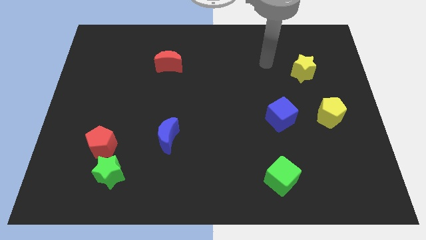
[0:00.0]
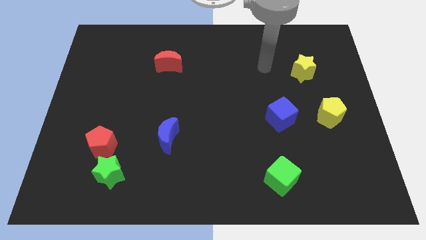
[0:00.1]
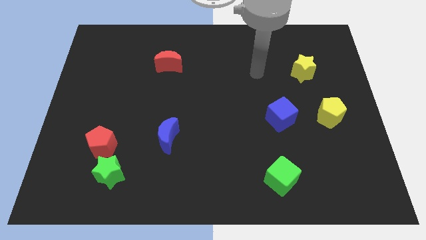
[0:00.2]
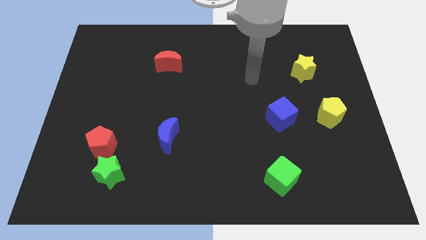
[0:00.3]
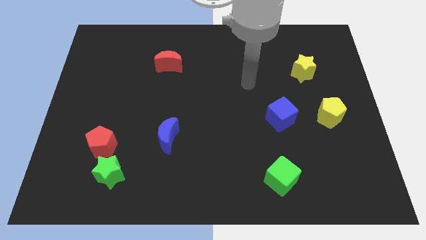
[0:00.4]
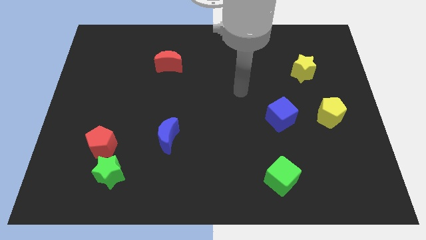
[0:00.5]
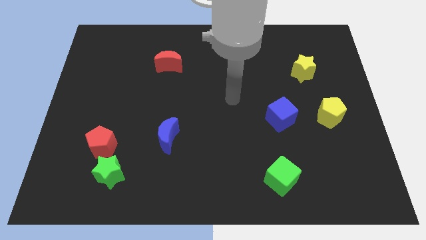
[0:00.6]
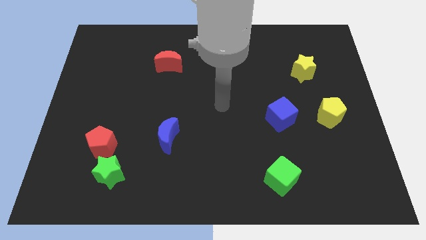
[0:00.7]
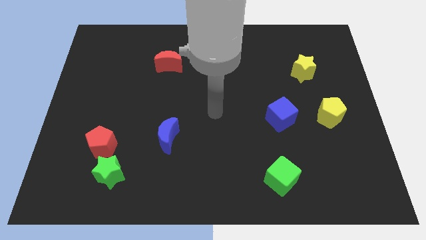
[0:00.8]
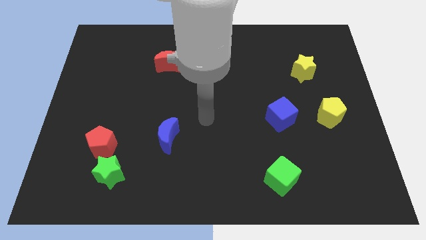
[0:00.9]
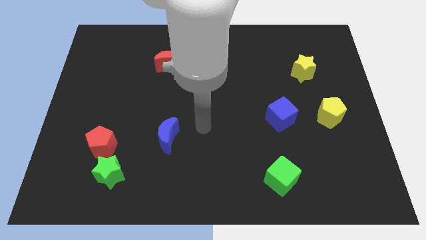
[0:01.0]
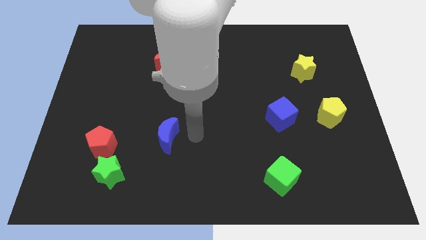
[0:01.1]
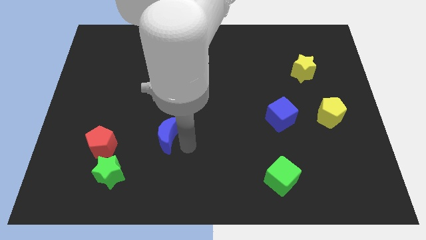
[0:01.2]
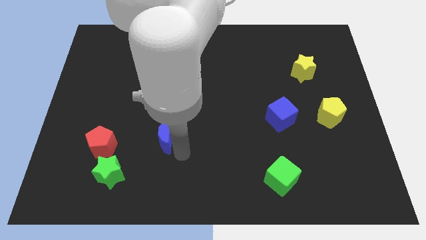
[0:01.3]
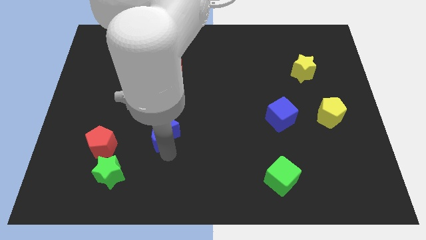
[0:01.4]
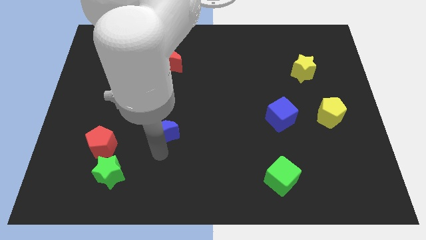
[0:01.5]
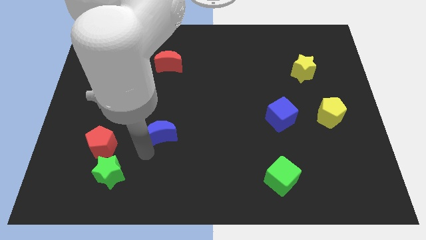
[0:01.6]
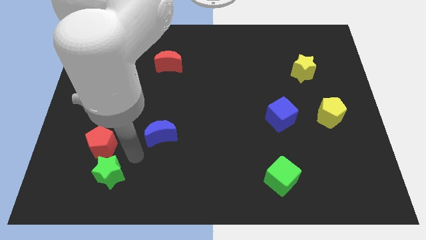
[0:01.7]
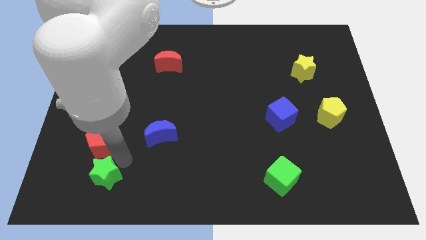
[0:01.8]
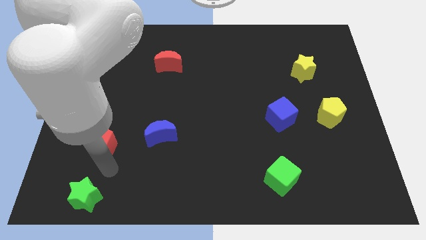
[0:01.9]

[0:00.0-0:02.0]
move the red pentagon away from the green star

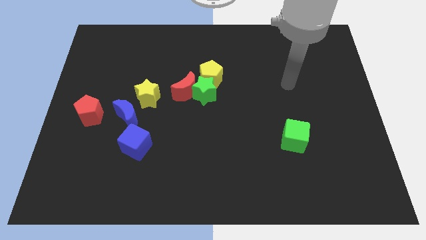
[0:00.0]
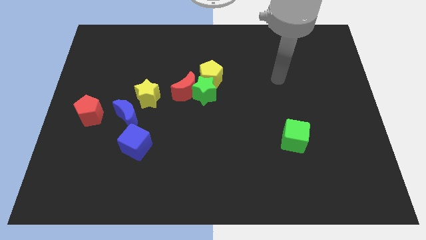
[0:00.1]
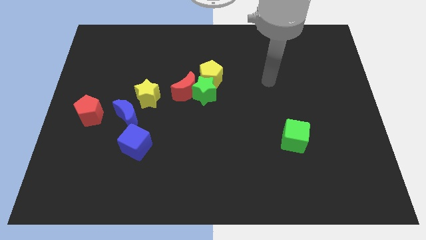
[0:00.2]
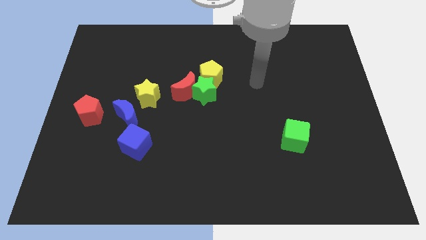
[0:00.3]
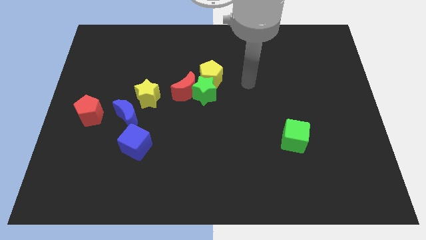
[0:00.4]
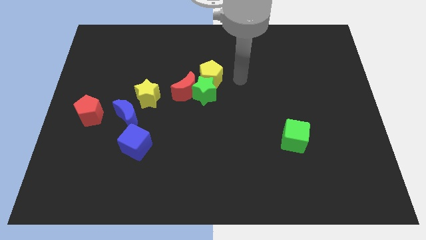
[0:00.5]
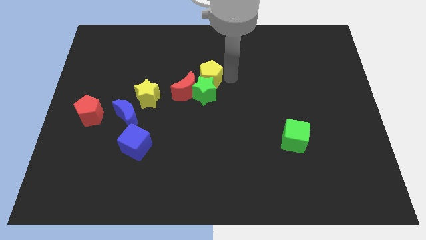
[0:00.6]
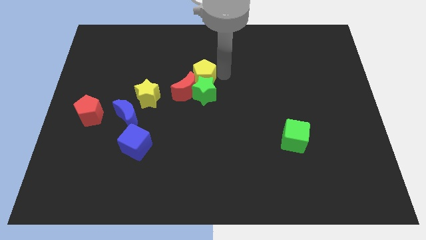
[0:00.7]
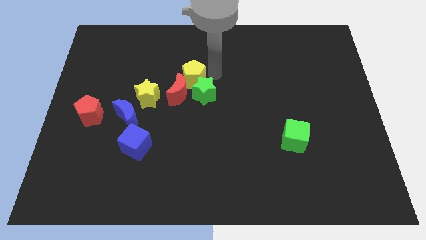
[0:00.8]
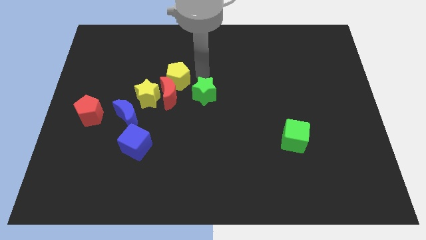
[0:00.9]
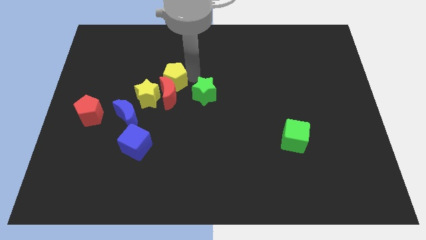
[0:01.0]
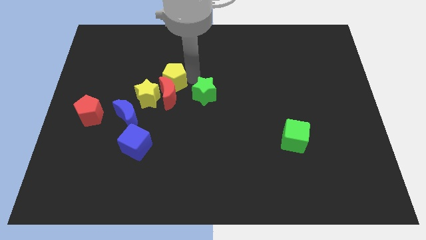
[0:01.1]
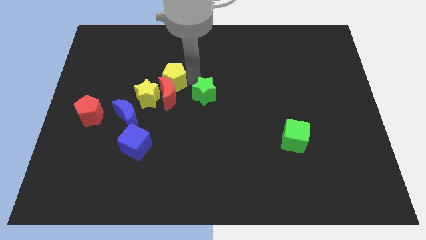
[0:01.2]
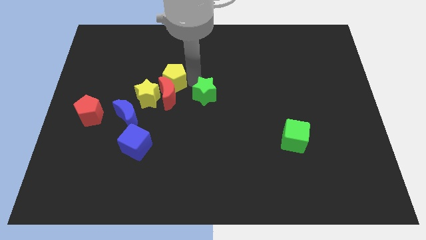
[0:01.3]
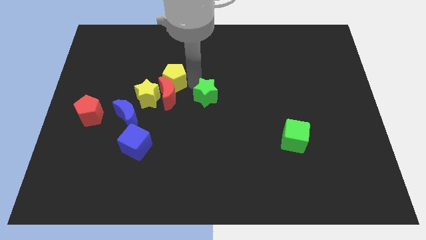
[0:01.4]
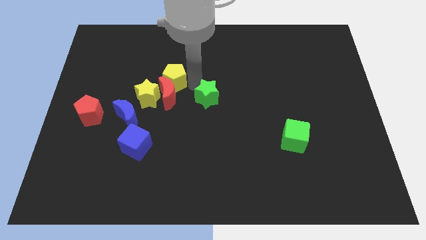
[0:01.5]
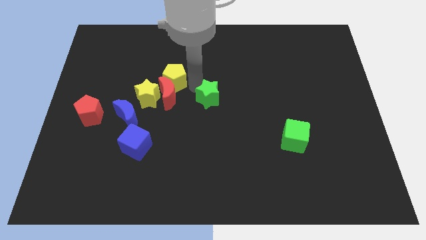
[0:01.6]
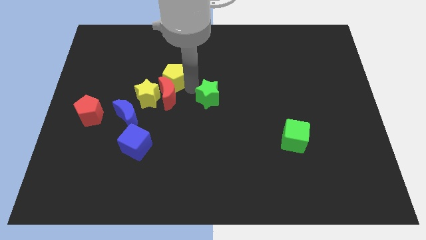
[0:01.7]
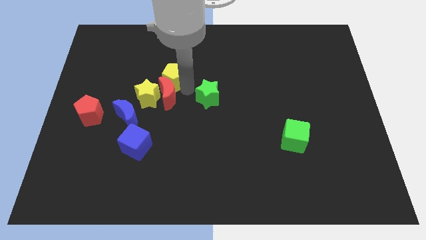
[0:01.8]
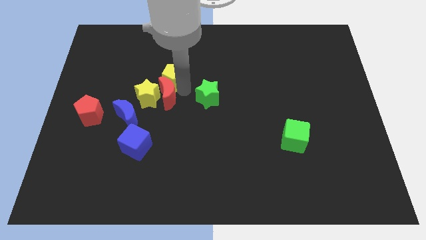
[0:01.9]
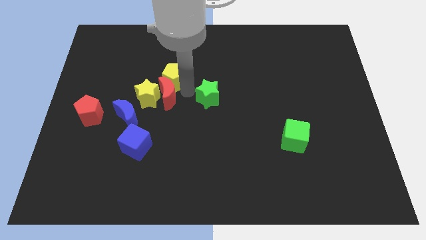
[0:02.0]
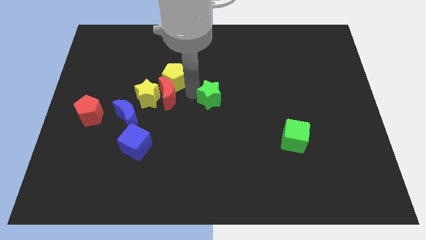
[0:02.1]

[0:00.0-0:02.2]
pull the green star apart from the red moon and yellow pentagon

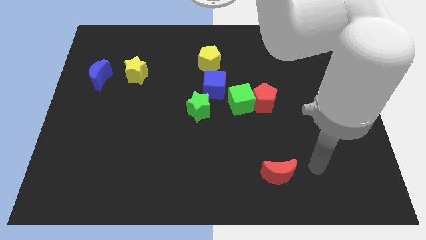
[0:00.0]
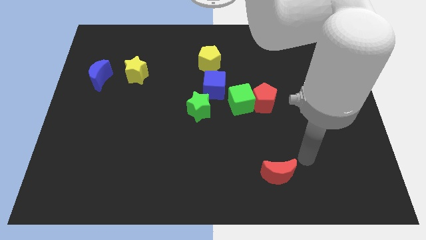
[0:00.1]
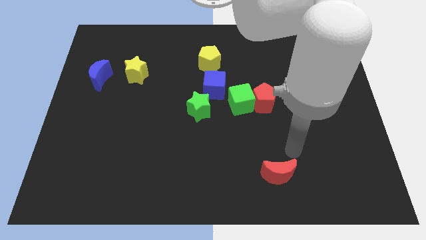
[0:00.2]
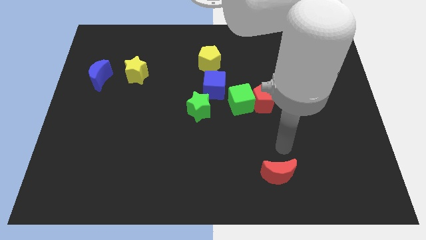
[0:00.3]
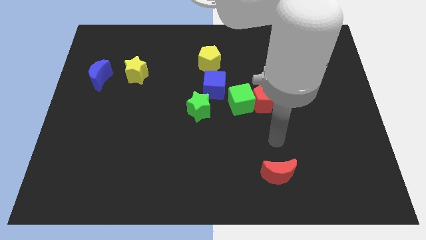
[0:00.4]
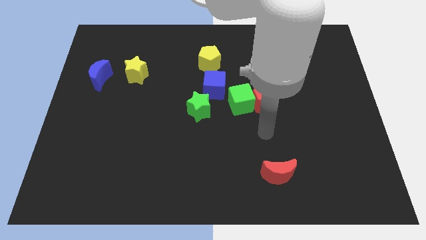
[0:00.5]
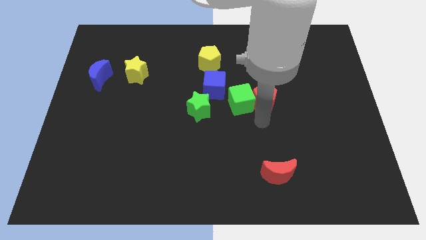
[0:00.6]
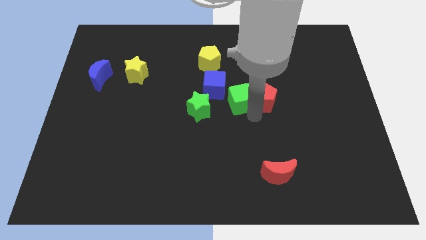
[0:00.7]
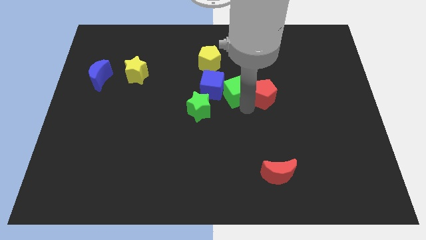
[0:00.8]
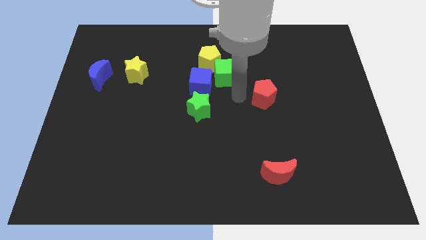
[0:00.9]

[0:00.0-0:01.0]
separate the red pentagon from the green cube

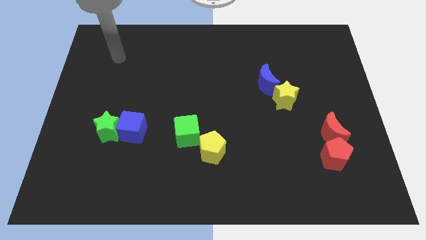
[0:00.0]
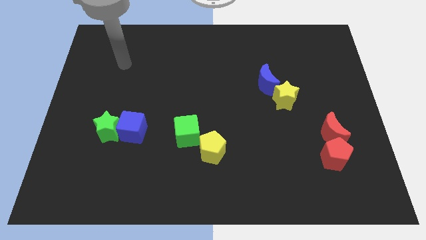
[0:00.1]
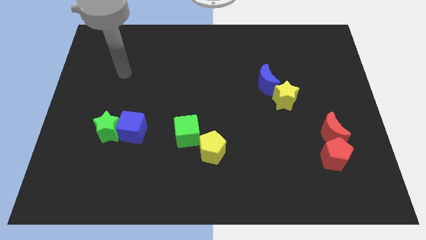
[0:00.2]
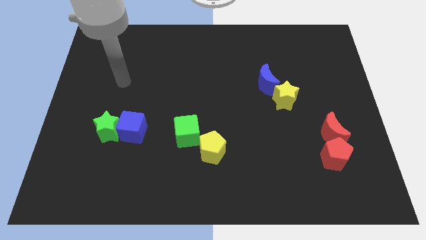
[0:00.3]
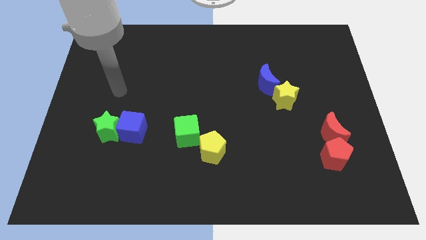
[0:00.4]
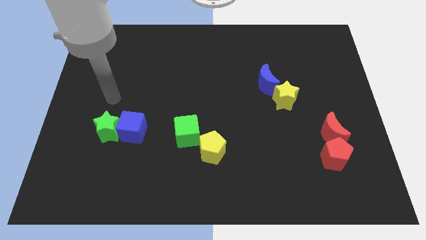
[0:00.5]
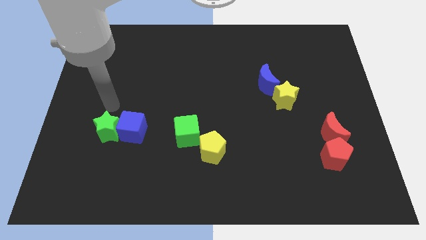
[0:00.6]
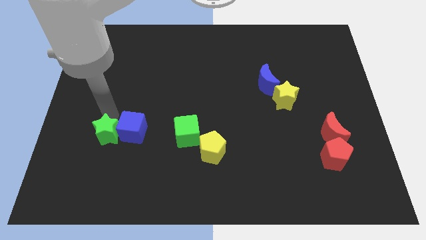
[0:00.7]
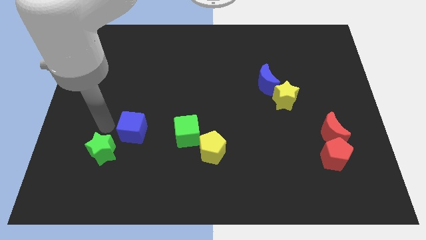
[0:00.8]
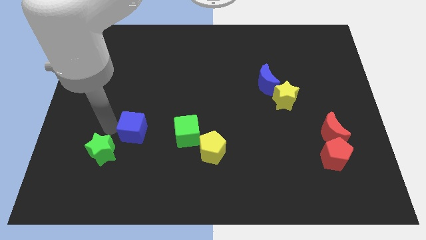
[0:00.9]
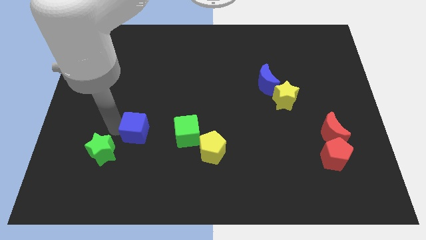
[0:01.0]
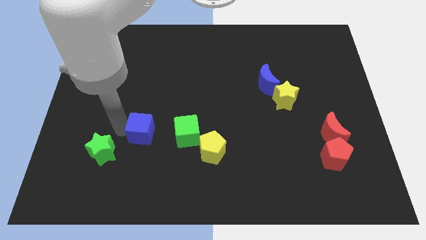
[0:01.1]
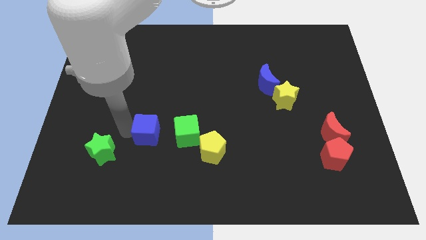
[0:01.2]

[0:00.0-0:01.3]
pull the blue cube apart from the green star

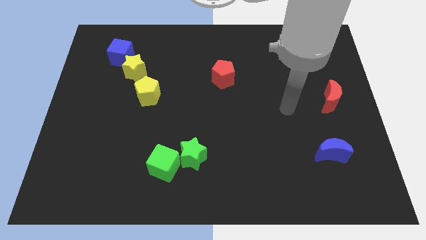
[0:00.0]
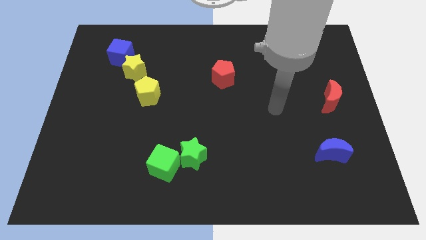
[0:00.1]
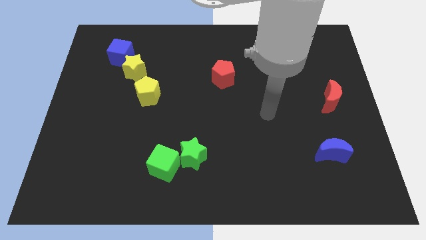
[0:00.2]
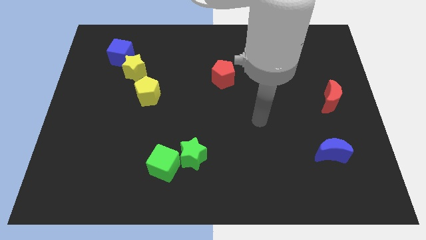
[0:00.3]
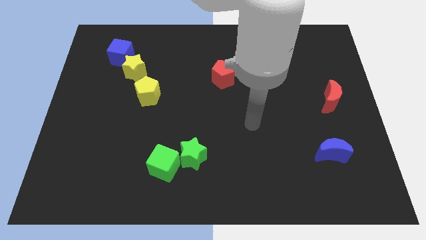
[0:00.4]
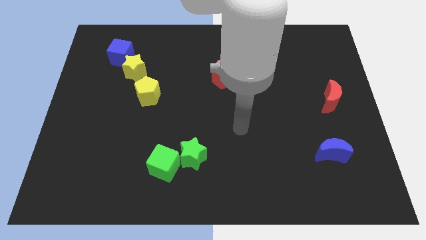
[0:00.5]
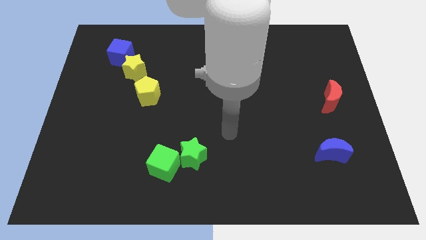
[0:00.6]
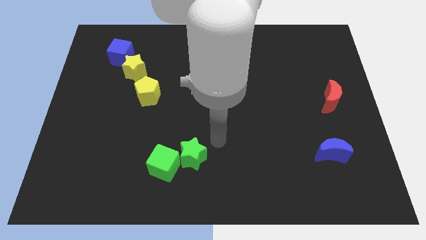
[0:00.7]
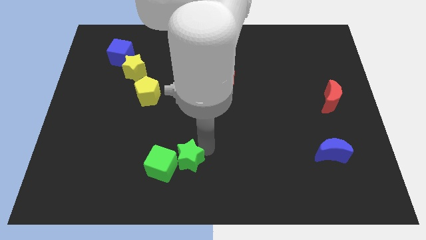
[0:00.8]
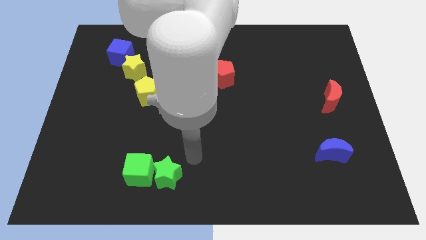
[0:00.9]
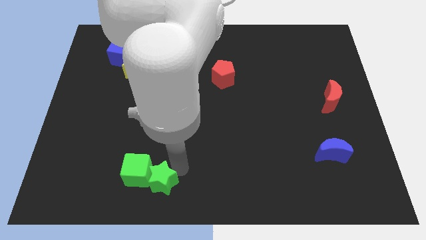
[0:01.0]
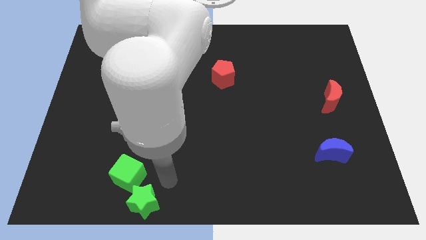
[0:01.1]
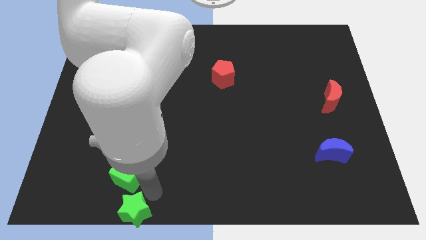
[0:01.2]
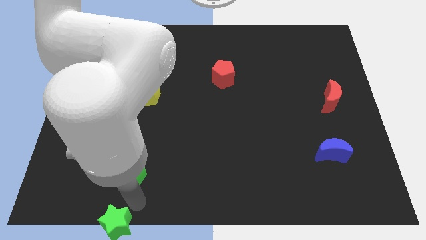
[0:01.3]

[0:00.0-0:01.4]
pull the green cube apart from the green star

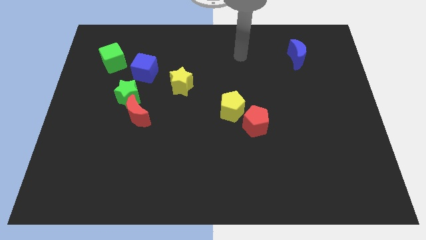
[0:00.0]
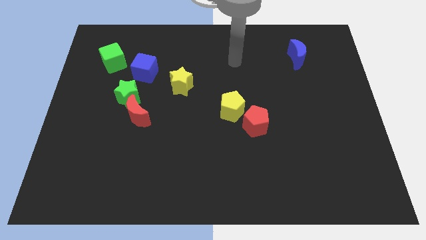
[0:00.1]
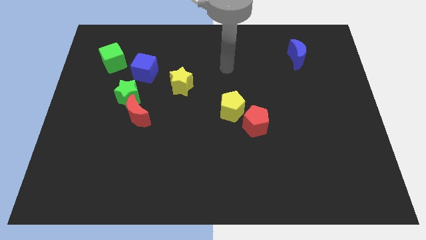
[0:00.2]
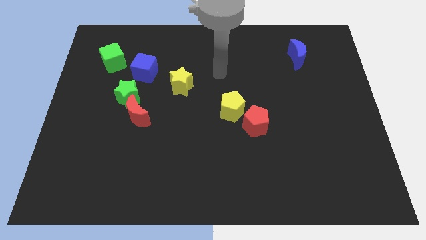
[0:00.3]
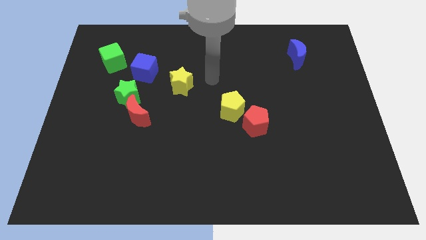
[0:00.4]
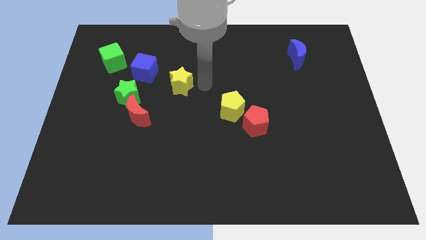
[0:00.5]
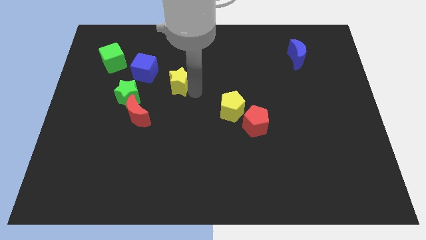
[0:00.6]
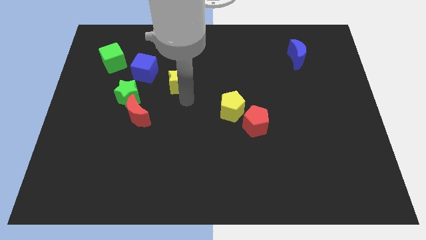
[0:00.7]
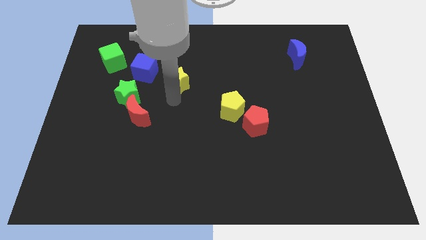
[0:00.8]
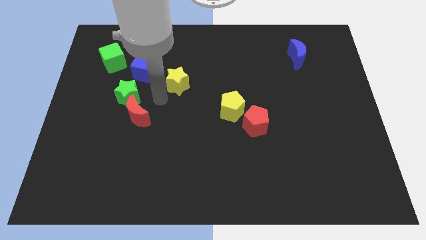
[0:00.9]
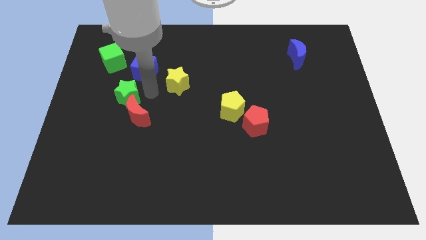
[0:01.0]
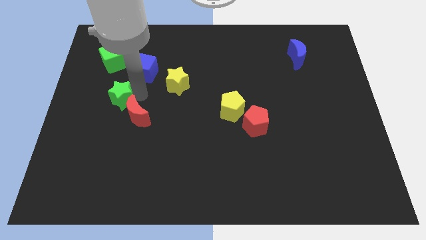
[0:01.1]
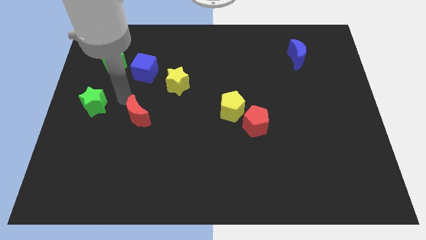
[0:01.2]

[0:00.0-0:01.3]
move the red moon away from the green star
